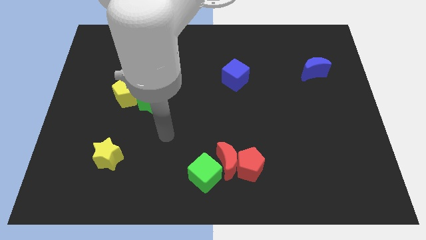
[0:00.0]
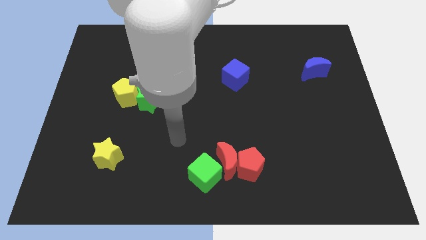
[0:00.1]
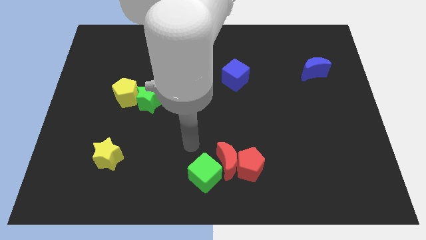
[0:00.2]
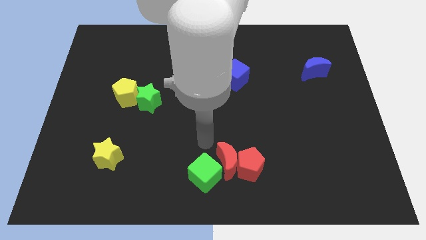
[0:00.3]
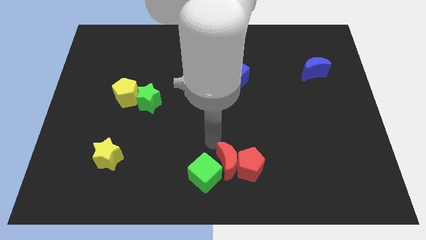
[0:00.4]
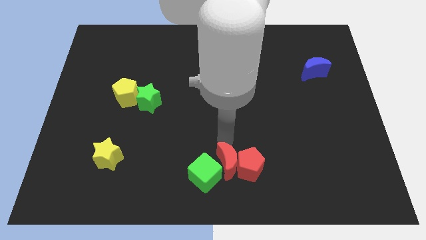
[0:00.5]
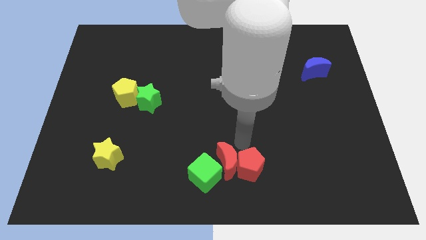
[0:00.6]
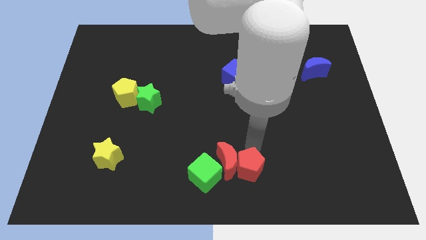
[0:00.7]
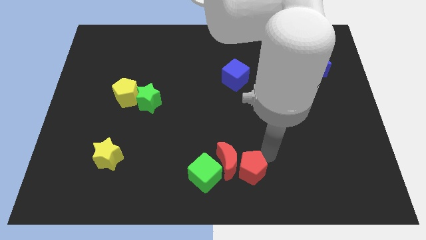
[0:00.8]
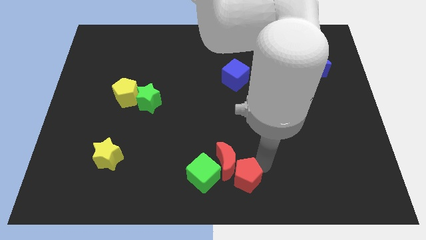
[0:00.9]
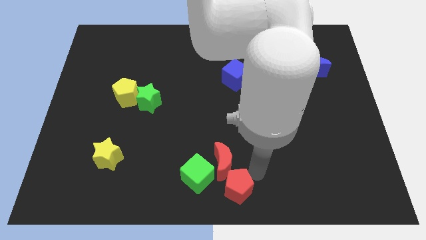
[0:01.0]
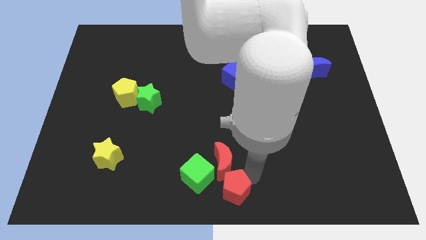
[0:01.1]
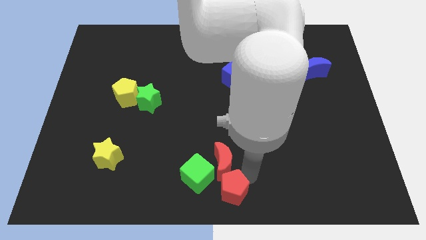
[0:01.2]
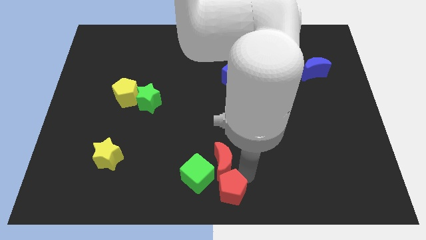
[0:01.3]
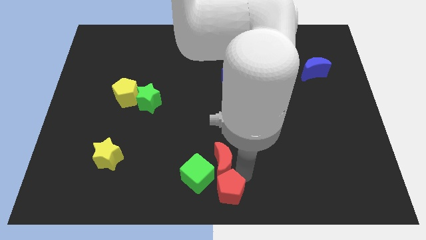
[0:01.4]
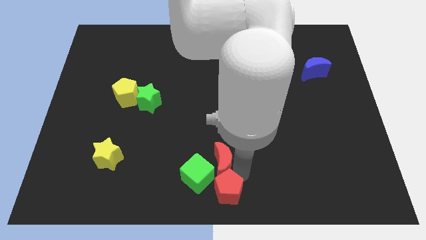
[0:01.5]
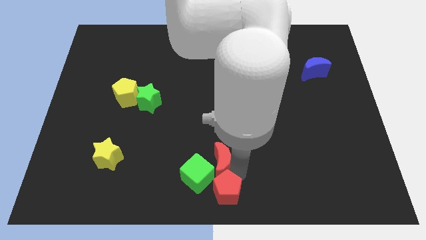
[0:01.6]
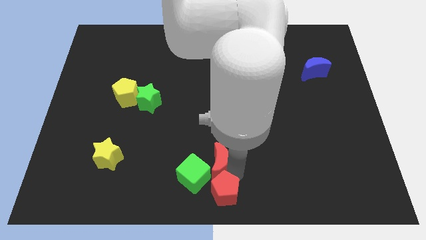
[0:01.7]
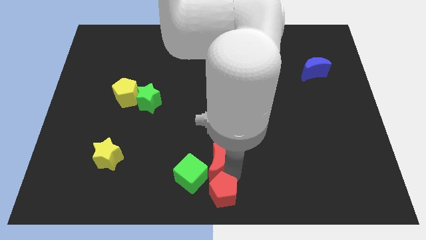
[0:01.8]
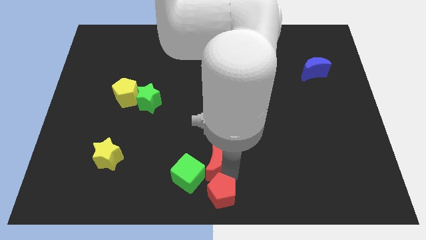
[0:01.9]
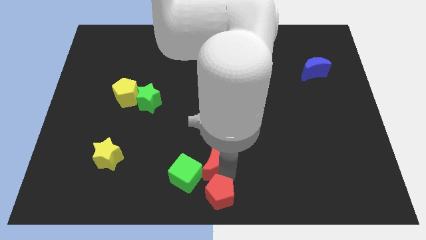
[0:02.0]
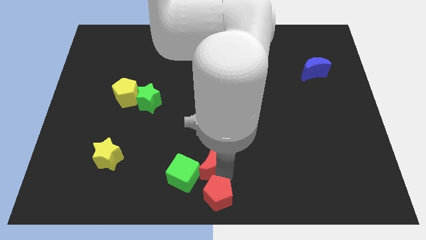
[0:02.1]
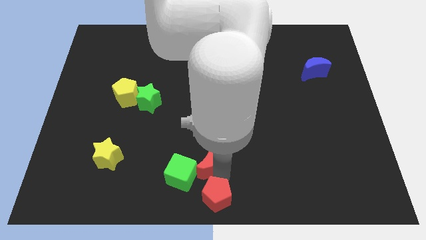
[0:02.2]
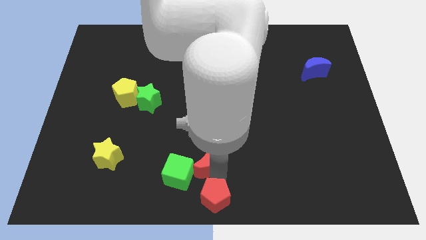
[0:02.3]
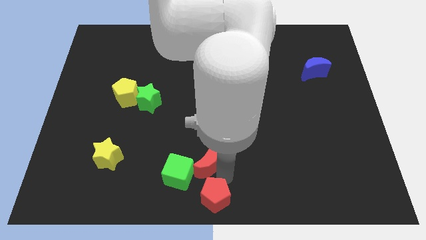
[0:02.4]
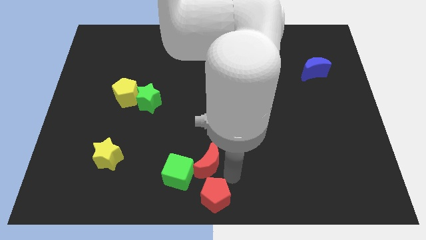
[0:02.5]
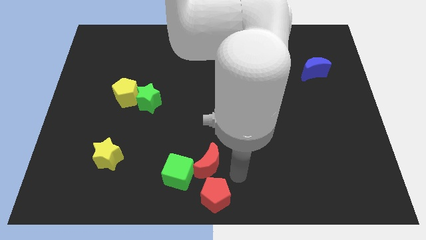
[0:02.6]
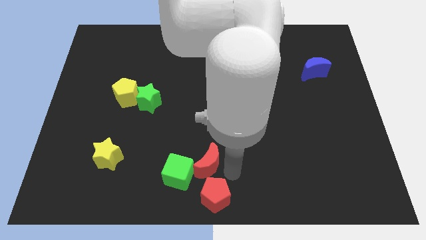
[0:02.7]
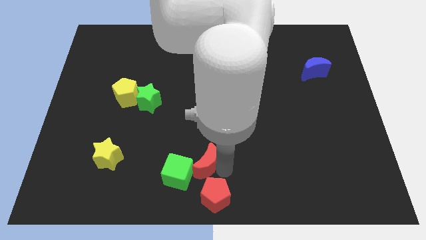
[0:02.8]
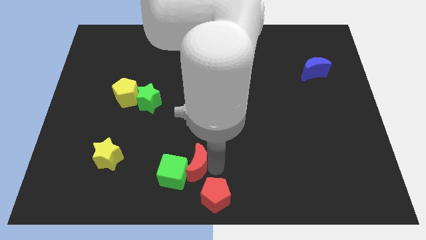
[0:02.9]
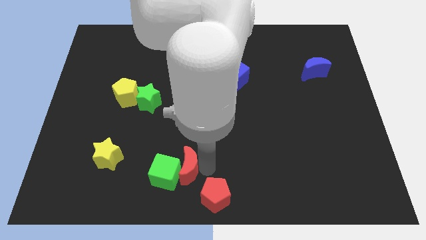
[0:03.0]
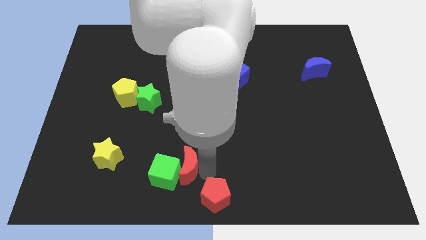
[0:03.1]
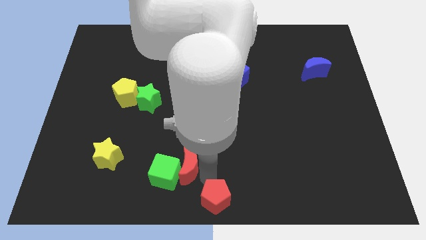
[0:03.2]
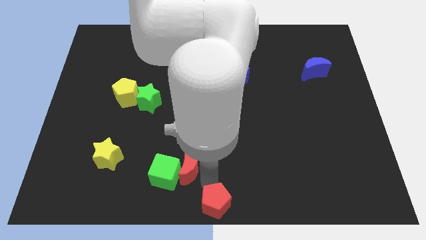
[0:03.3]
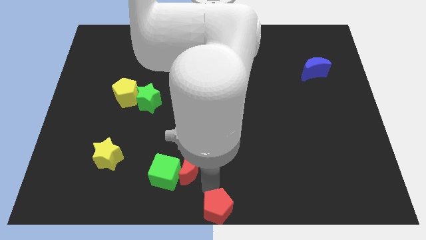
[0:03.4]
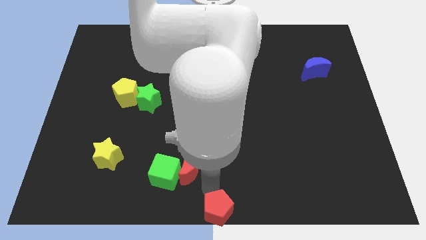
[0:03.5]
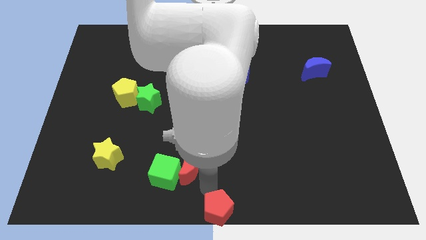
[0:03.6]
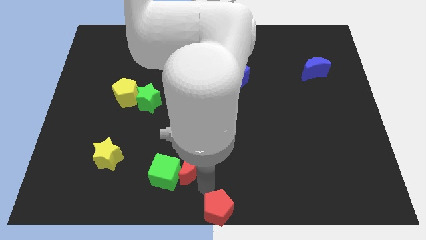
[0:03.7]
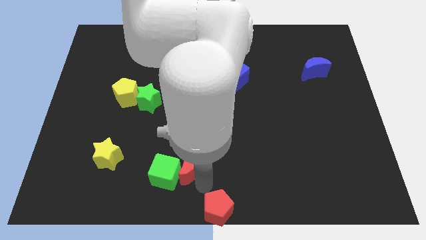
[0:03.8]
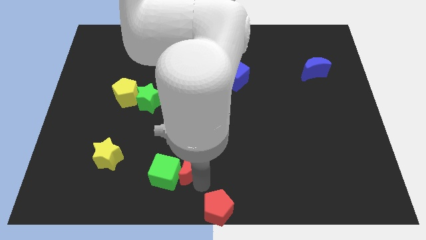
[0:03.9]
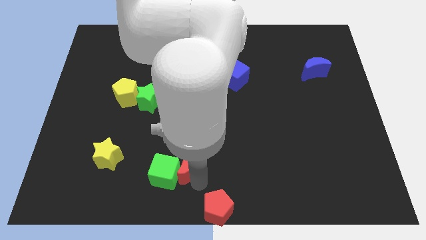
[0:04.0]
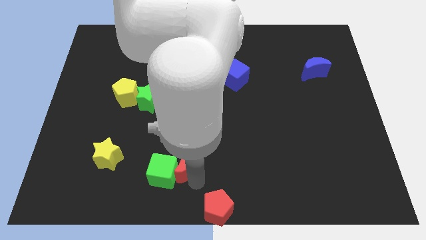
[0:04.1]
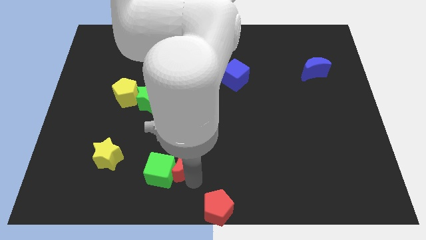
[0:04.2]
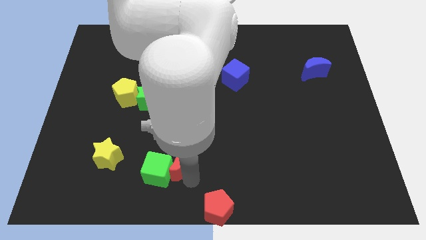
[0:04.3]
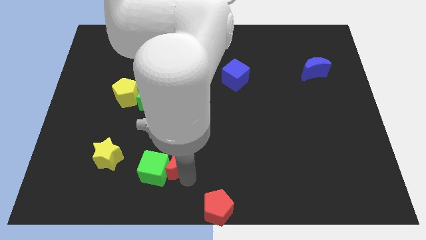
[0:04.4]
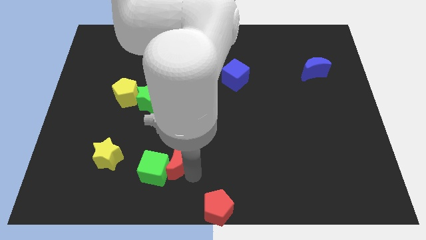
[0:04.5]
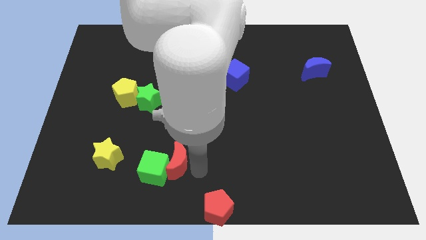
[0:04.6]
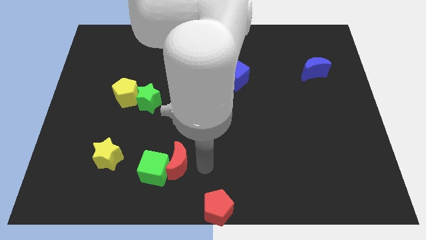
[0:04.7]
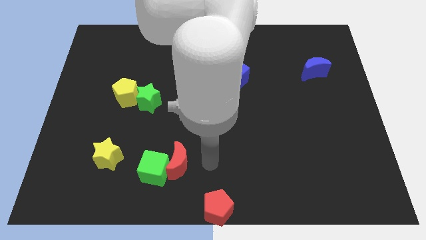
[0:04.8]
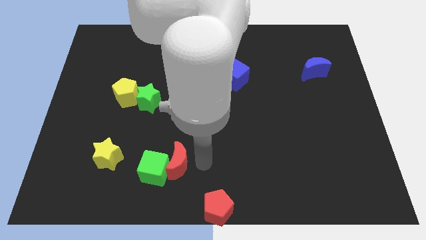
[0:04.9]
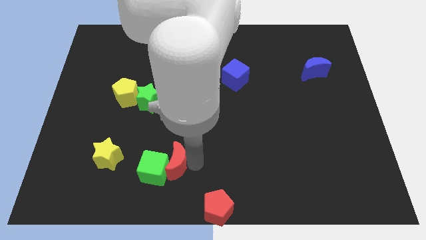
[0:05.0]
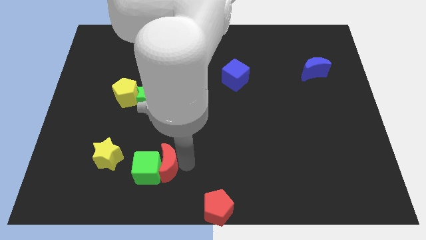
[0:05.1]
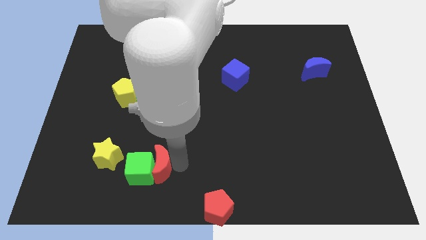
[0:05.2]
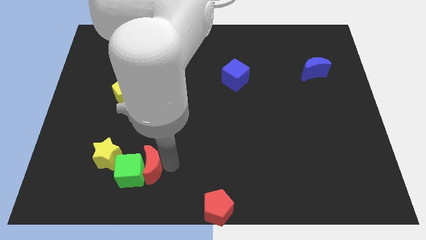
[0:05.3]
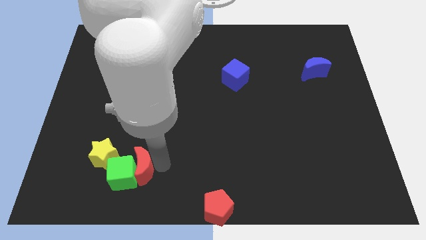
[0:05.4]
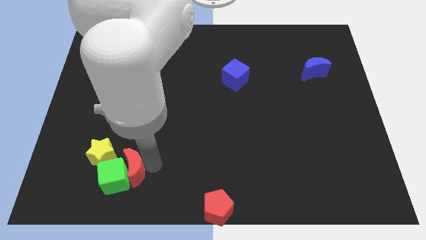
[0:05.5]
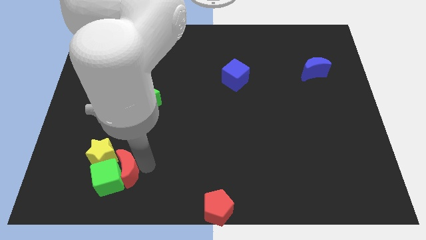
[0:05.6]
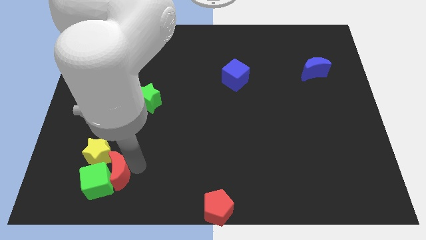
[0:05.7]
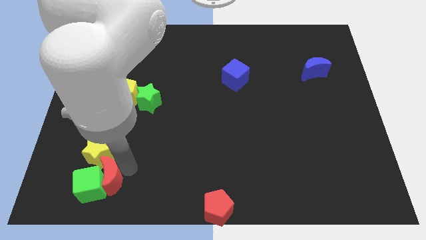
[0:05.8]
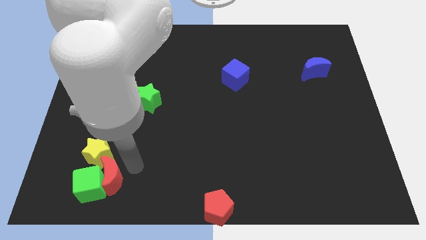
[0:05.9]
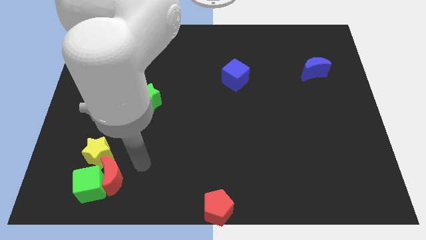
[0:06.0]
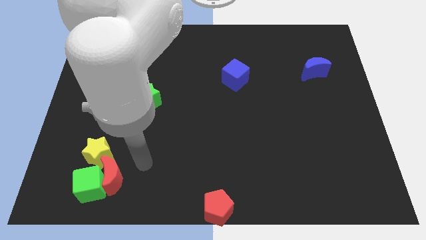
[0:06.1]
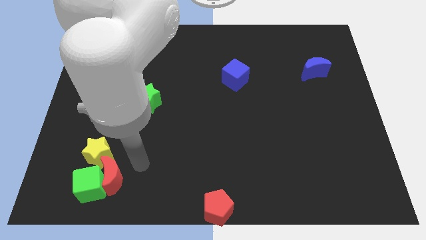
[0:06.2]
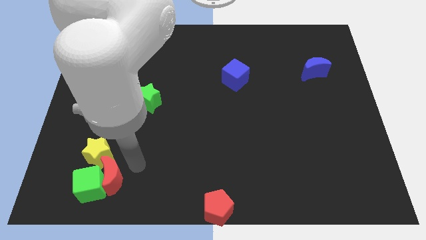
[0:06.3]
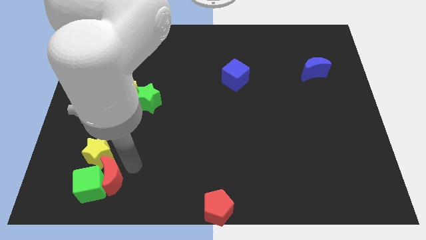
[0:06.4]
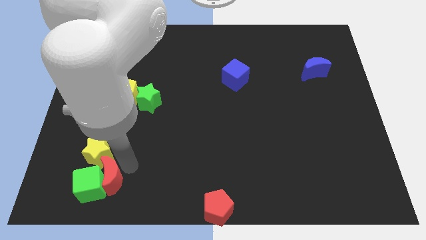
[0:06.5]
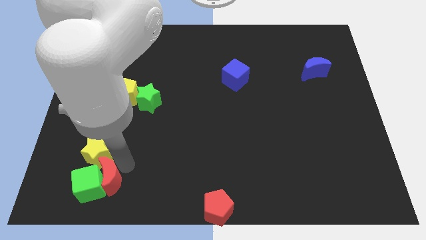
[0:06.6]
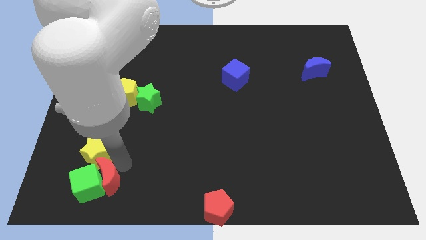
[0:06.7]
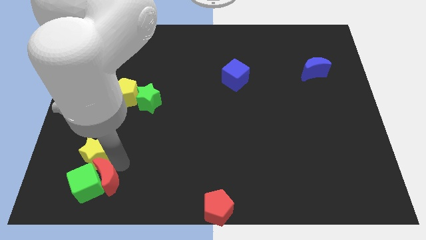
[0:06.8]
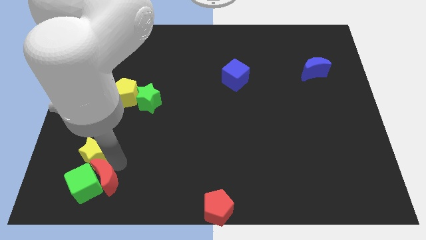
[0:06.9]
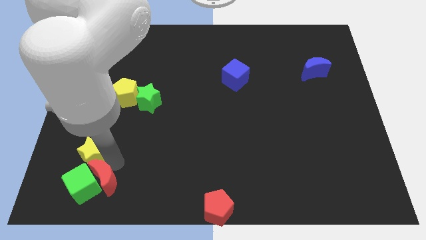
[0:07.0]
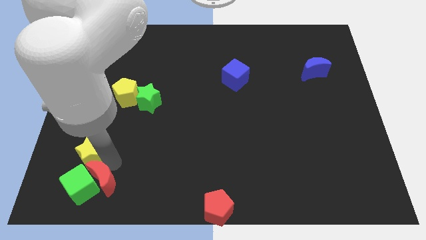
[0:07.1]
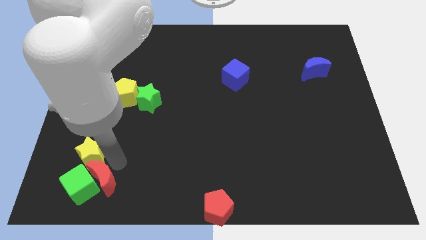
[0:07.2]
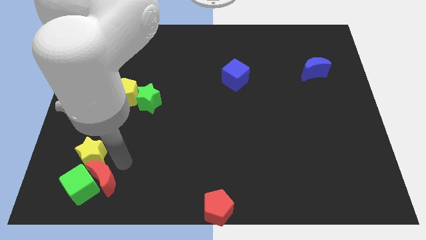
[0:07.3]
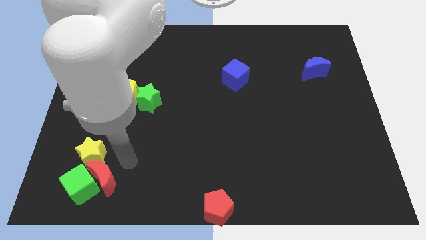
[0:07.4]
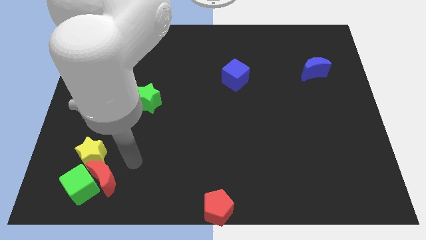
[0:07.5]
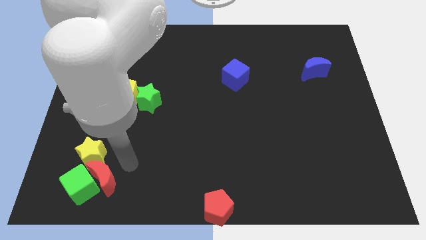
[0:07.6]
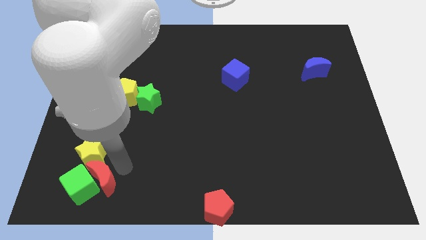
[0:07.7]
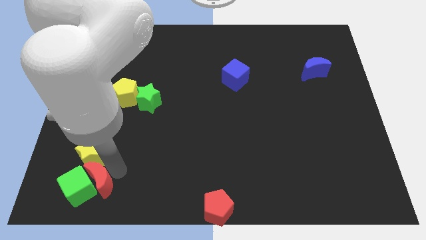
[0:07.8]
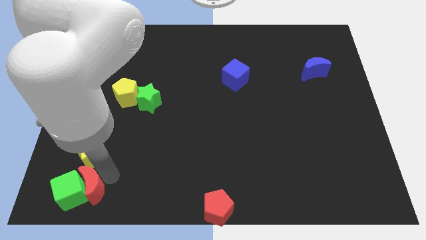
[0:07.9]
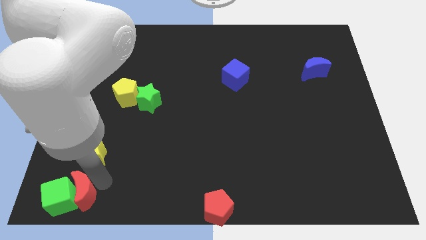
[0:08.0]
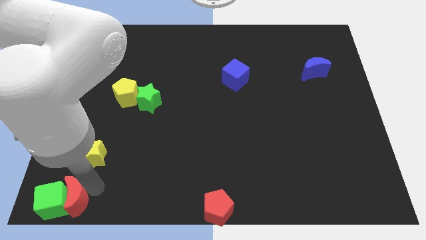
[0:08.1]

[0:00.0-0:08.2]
slide the red moon to the lower left corner
